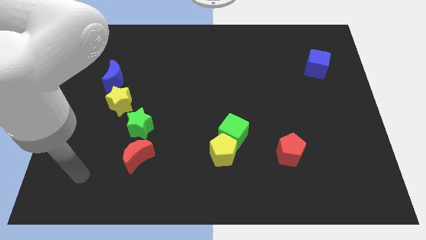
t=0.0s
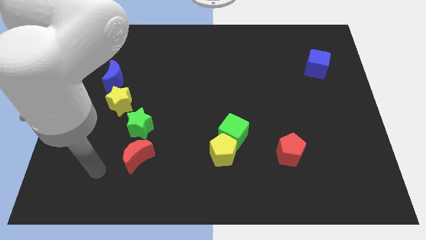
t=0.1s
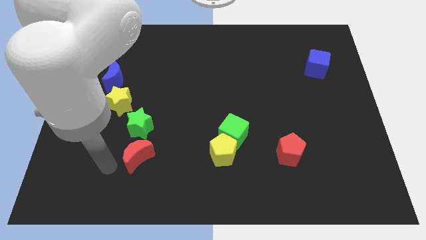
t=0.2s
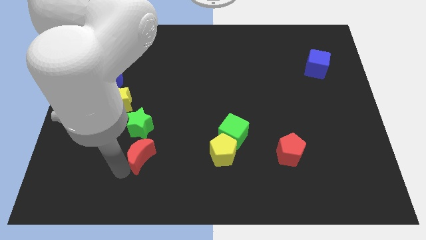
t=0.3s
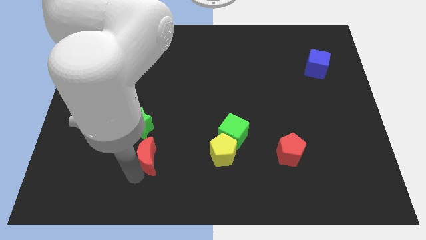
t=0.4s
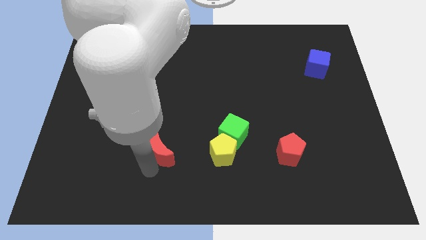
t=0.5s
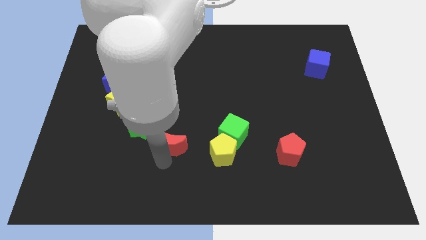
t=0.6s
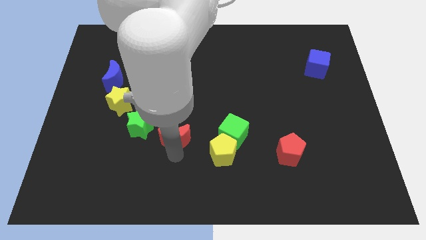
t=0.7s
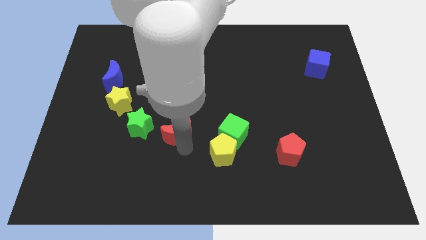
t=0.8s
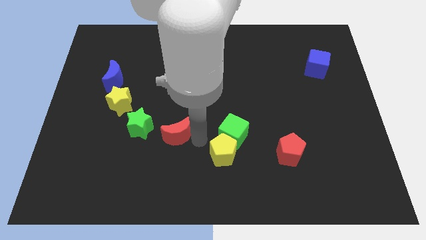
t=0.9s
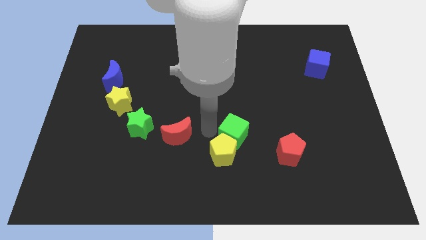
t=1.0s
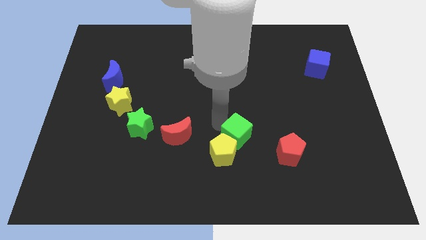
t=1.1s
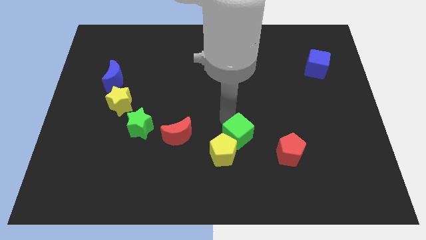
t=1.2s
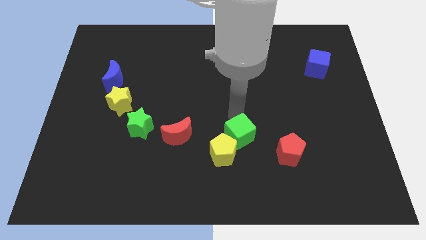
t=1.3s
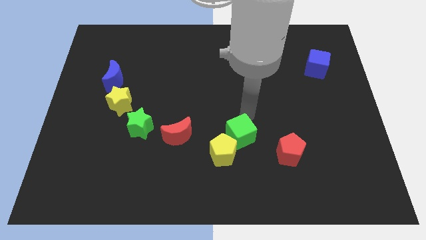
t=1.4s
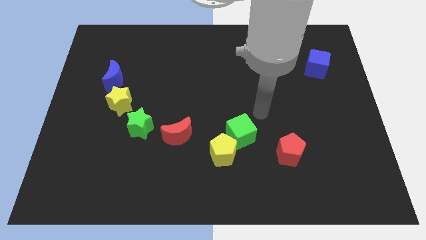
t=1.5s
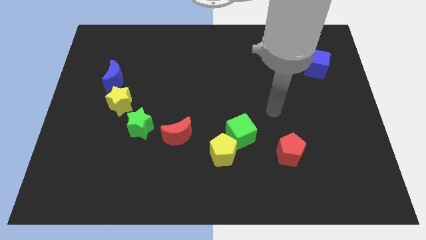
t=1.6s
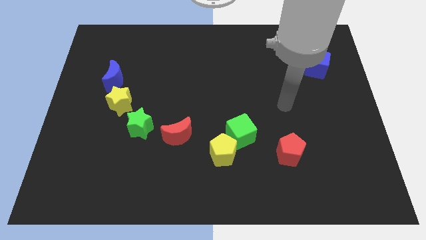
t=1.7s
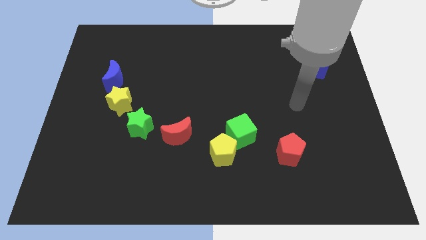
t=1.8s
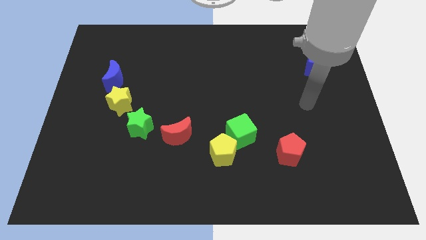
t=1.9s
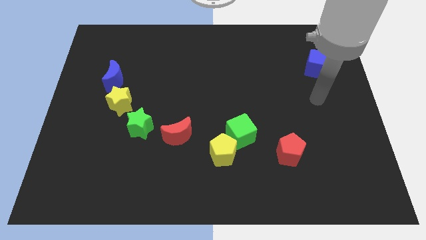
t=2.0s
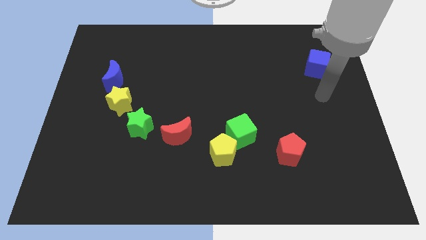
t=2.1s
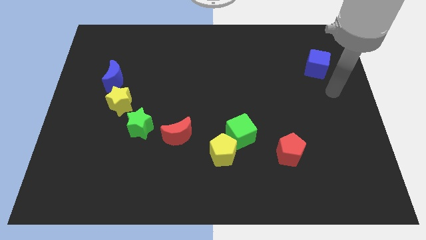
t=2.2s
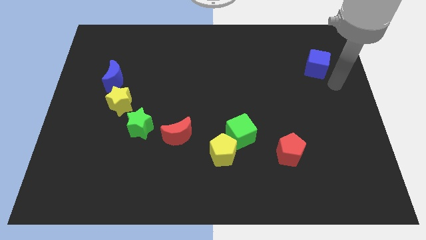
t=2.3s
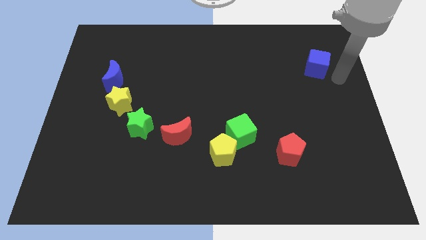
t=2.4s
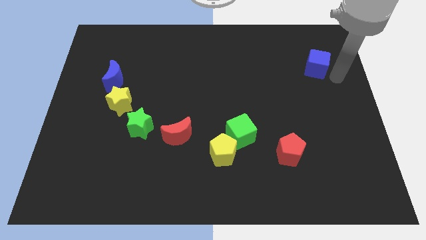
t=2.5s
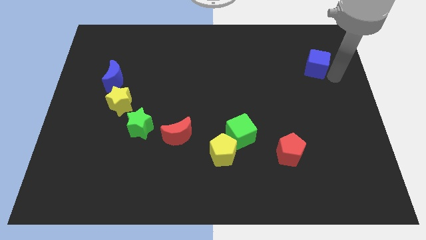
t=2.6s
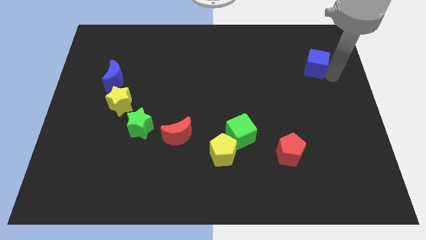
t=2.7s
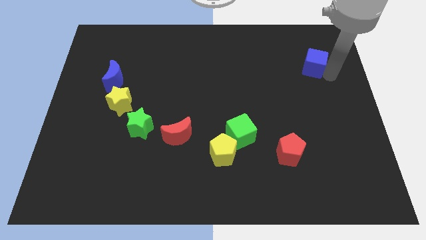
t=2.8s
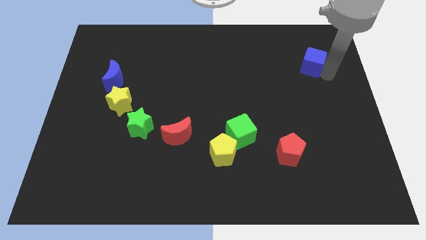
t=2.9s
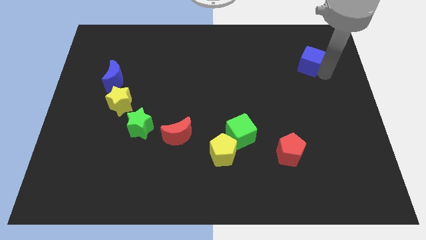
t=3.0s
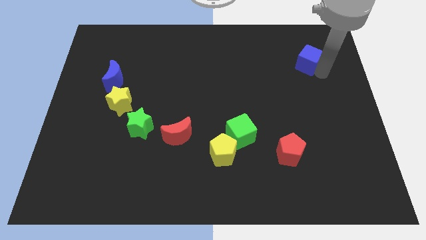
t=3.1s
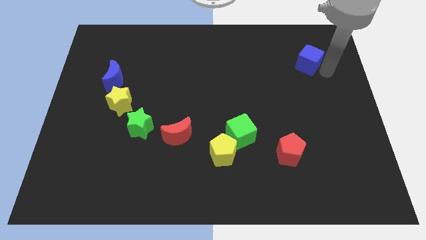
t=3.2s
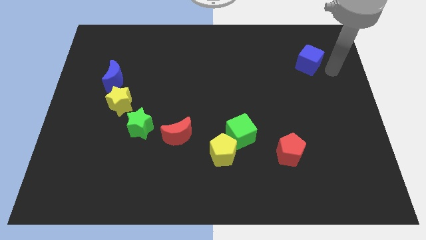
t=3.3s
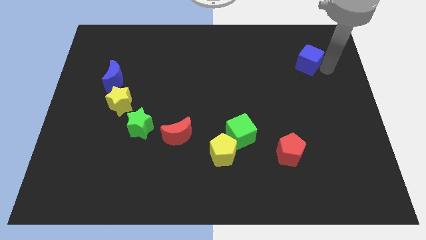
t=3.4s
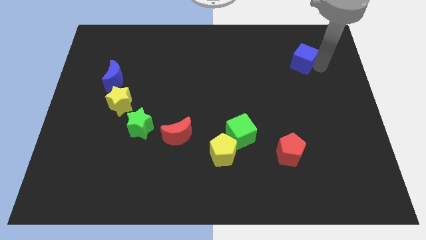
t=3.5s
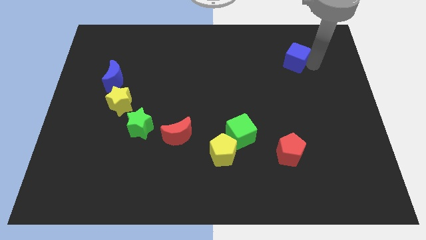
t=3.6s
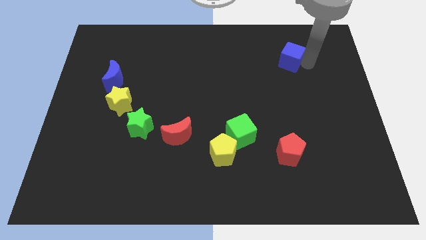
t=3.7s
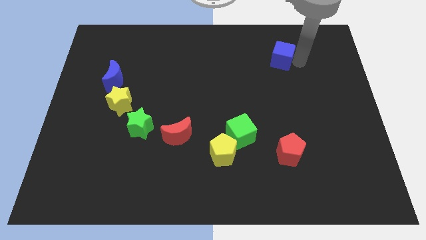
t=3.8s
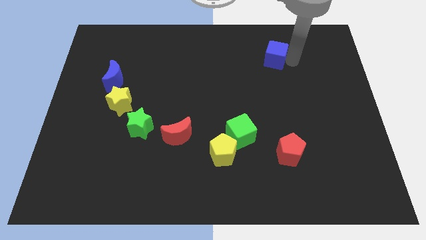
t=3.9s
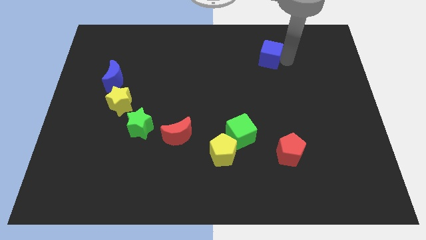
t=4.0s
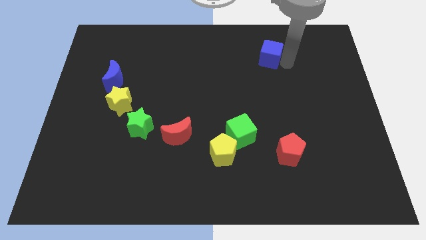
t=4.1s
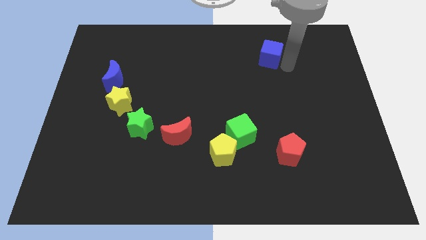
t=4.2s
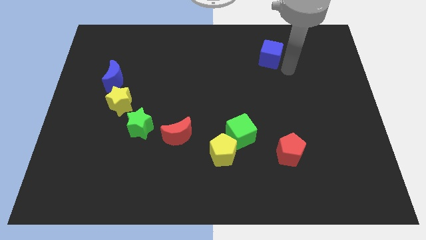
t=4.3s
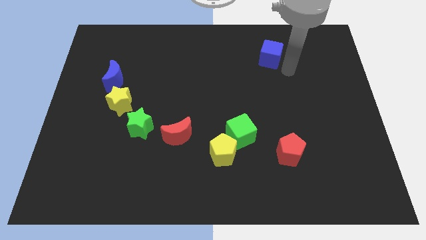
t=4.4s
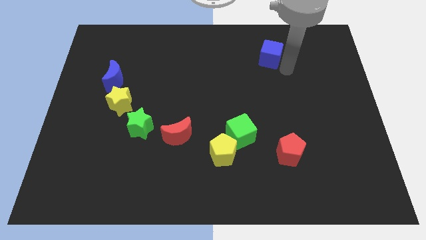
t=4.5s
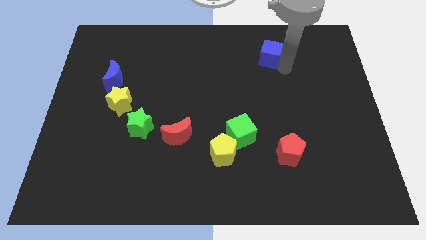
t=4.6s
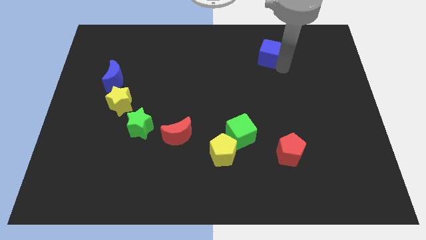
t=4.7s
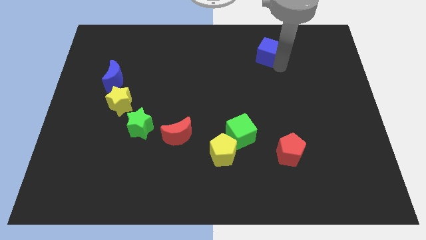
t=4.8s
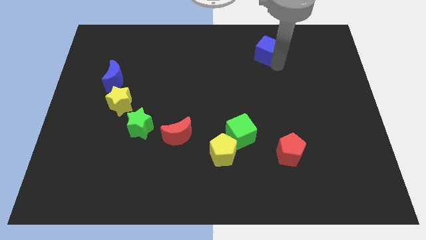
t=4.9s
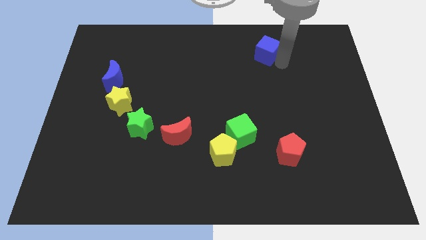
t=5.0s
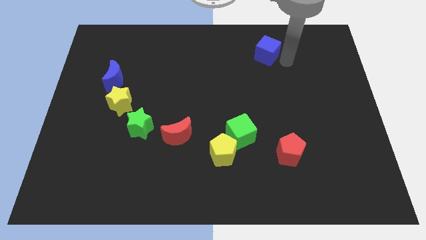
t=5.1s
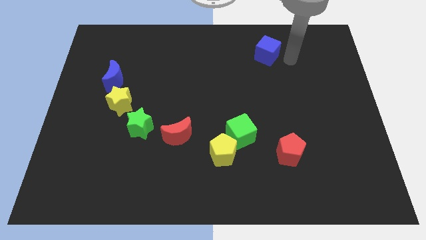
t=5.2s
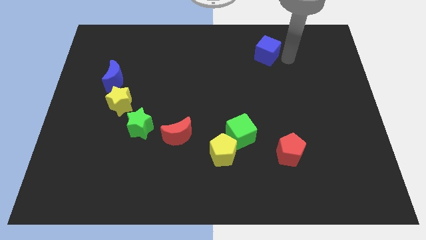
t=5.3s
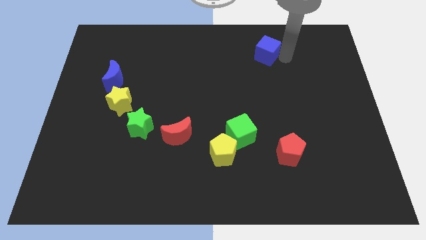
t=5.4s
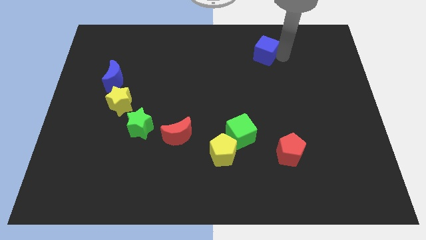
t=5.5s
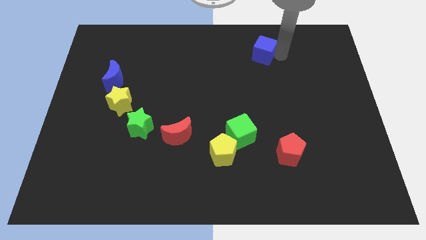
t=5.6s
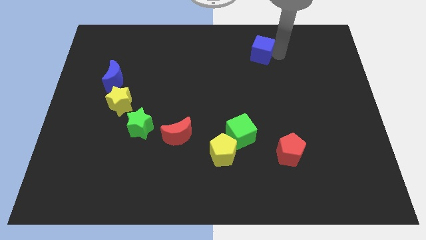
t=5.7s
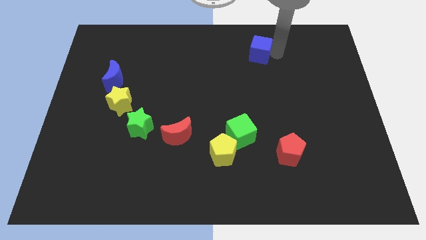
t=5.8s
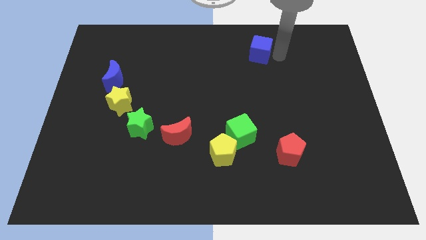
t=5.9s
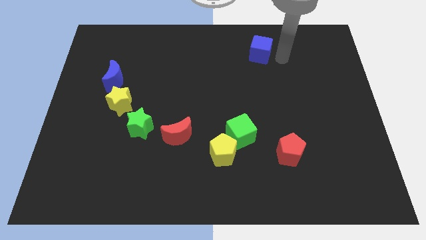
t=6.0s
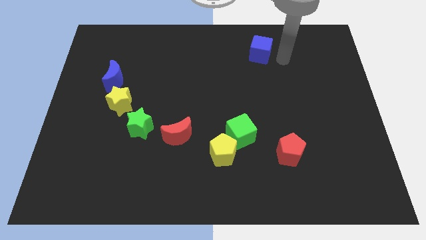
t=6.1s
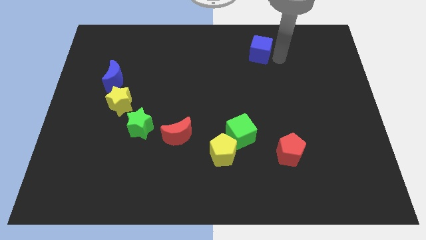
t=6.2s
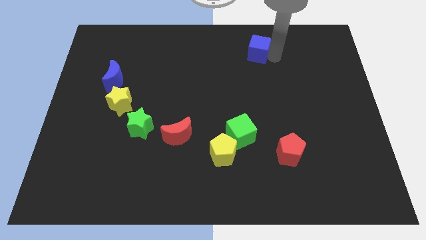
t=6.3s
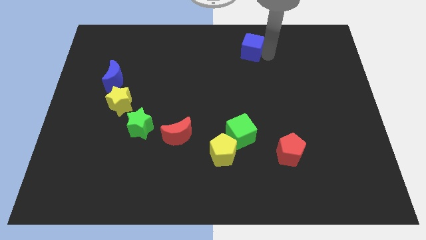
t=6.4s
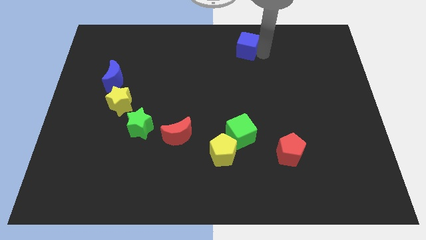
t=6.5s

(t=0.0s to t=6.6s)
move the blue cube to the towards your base
